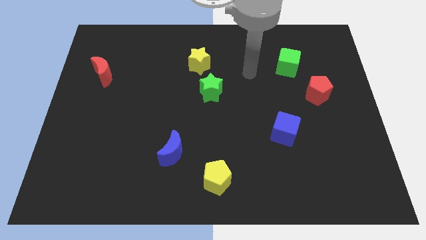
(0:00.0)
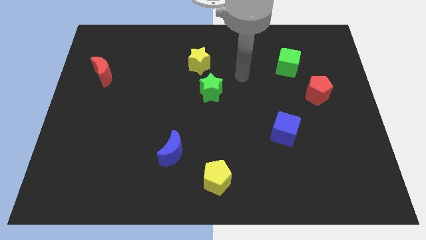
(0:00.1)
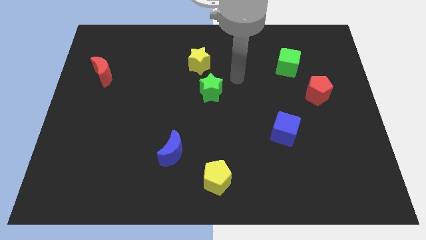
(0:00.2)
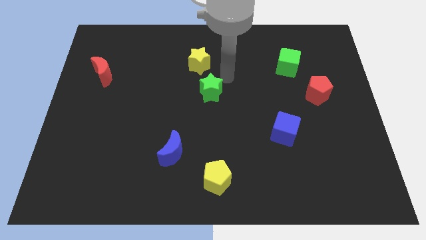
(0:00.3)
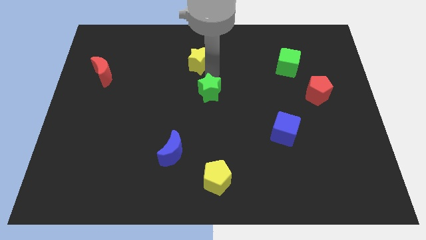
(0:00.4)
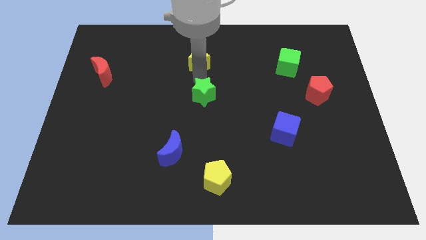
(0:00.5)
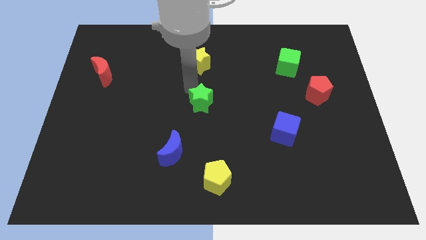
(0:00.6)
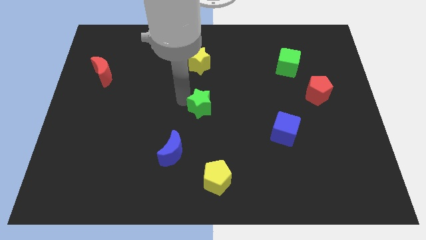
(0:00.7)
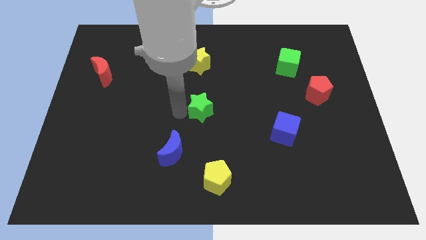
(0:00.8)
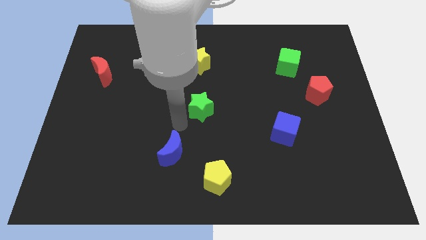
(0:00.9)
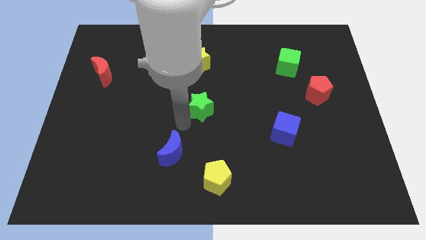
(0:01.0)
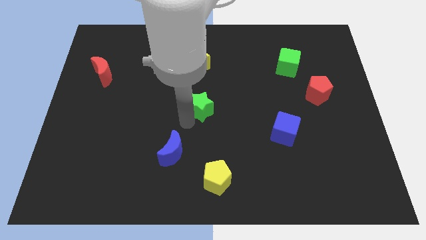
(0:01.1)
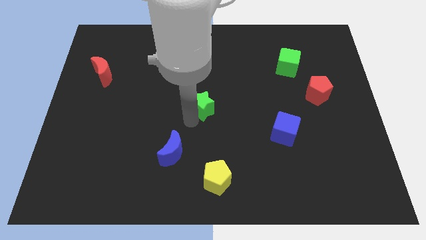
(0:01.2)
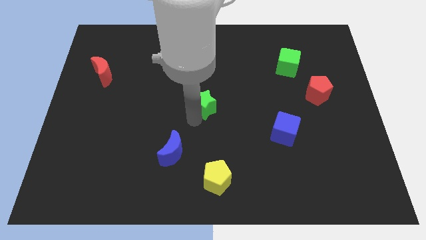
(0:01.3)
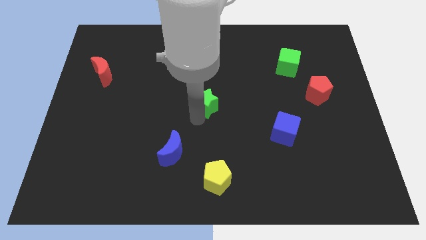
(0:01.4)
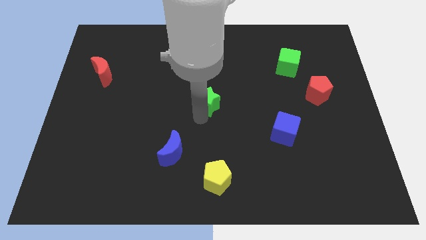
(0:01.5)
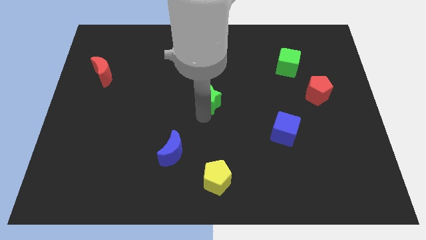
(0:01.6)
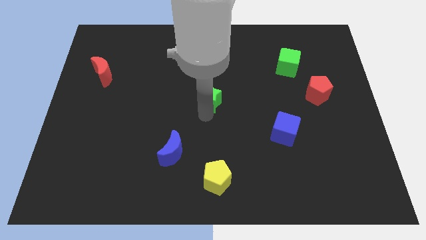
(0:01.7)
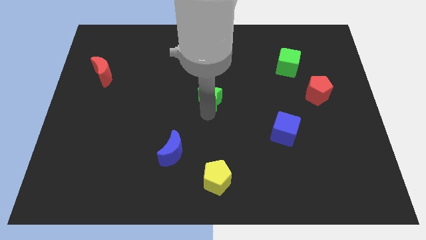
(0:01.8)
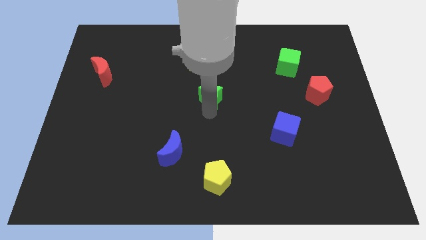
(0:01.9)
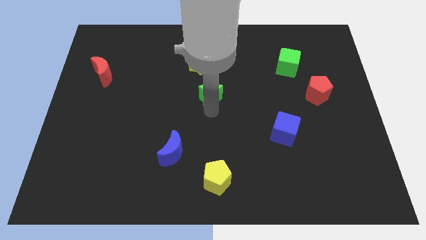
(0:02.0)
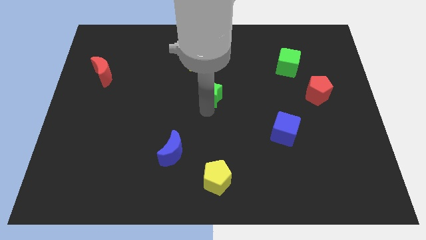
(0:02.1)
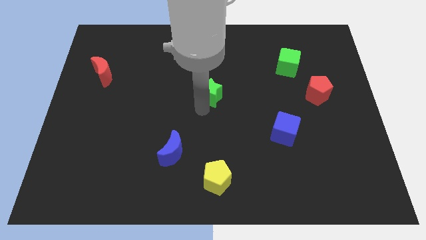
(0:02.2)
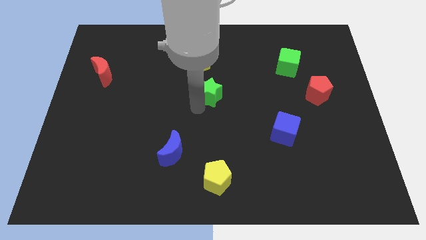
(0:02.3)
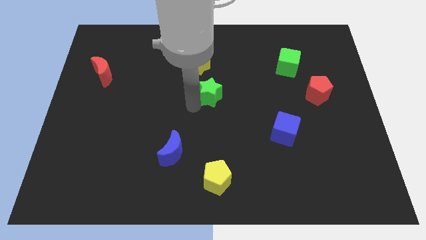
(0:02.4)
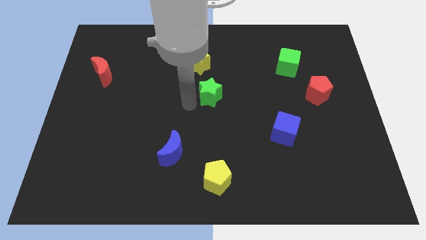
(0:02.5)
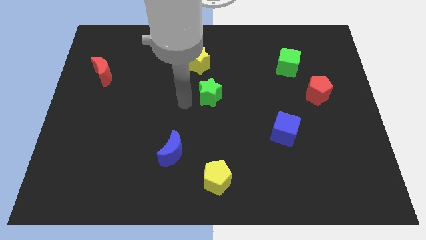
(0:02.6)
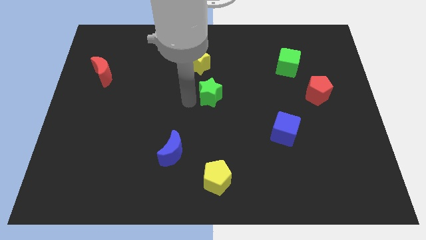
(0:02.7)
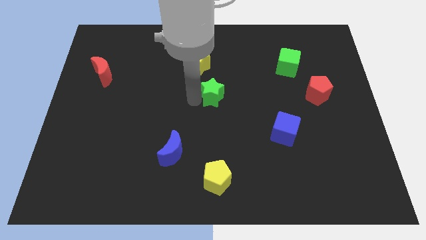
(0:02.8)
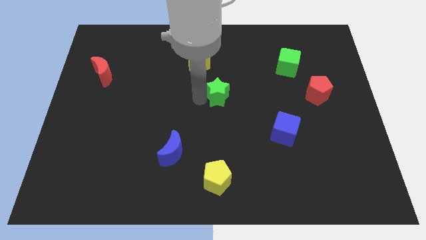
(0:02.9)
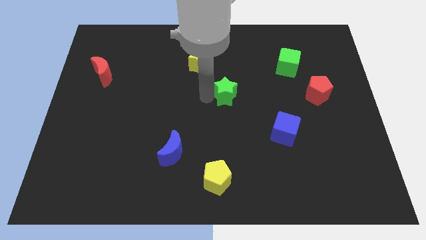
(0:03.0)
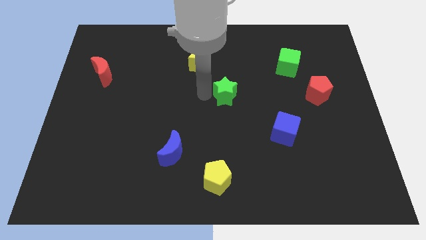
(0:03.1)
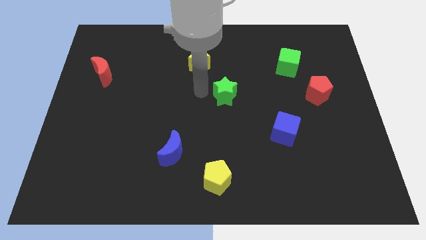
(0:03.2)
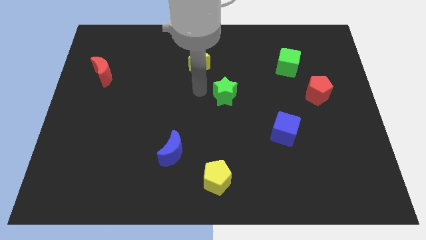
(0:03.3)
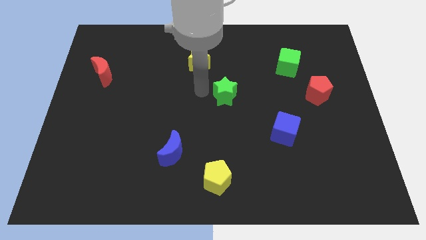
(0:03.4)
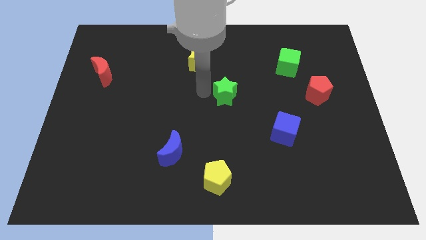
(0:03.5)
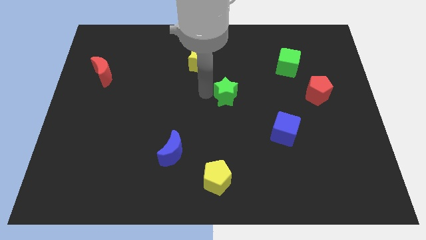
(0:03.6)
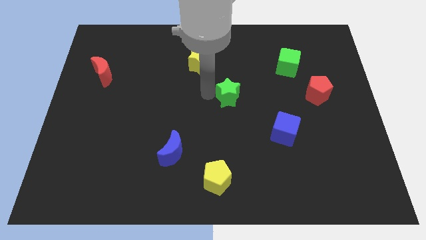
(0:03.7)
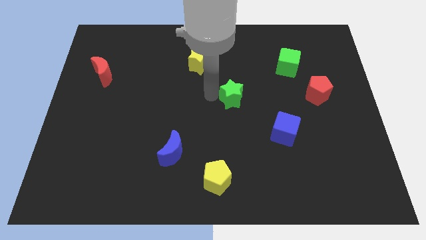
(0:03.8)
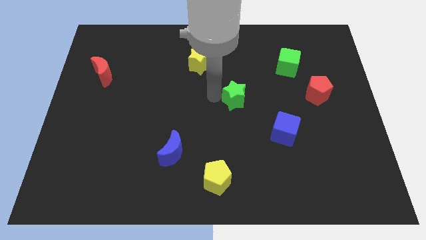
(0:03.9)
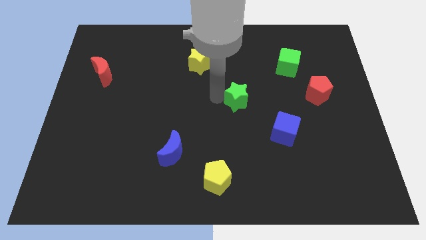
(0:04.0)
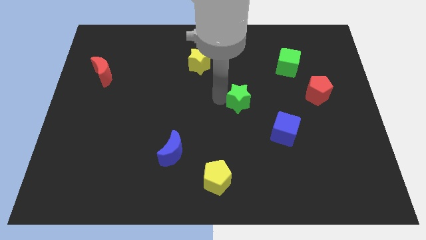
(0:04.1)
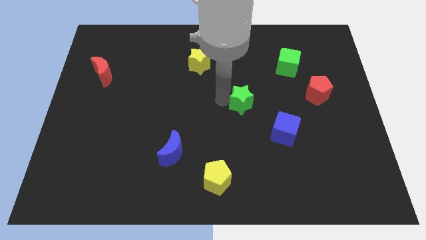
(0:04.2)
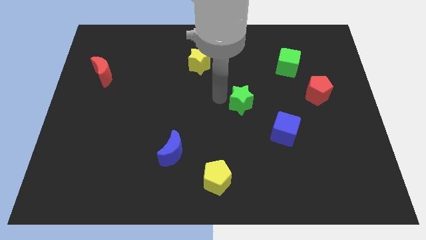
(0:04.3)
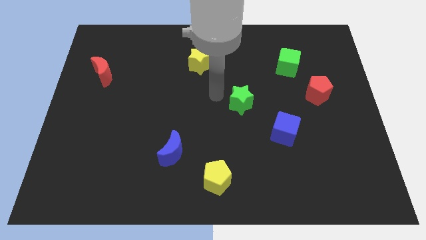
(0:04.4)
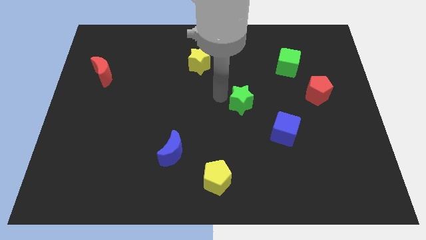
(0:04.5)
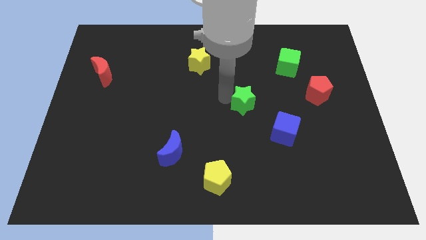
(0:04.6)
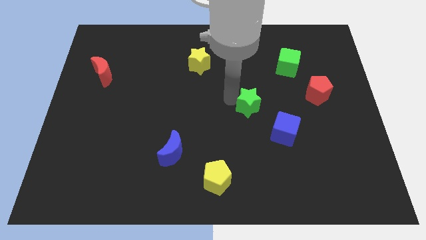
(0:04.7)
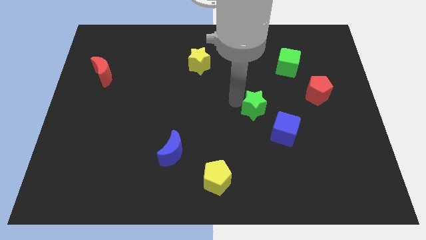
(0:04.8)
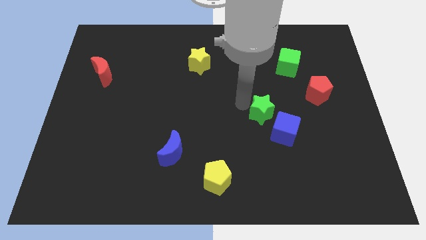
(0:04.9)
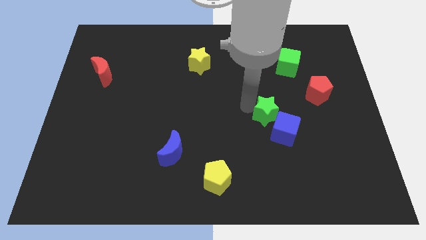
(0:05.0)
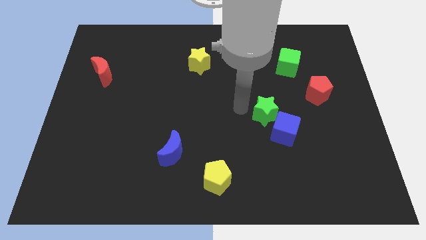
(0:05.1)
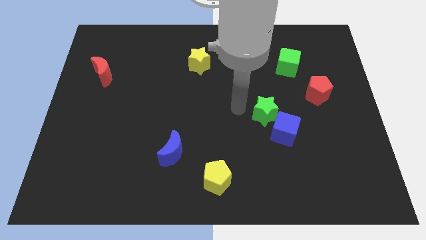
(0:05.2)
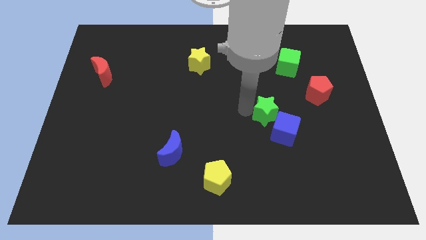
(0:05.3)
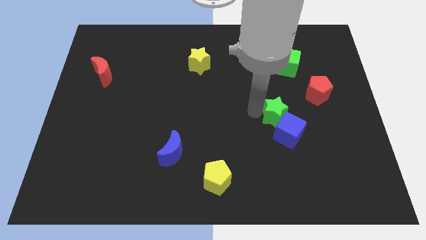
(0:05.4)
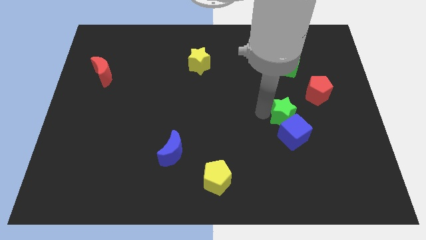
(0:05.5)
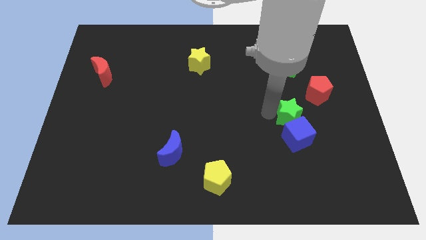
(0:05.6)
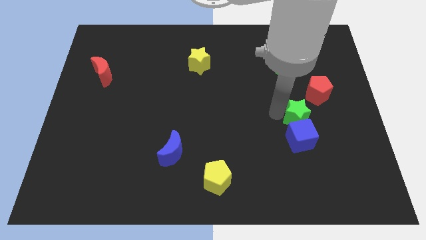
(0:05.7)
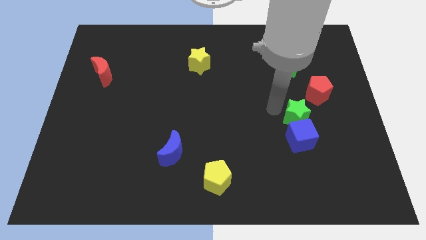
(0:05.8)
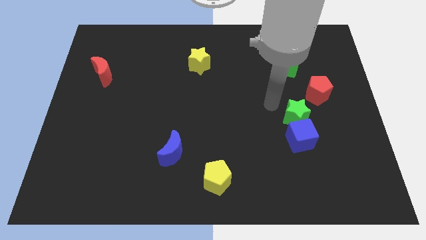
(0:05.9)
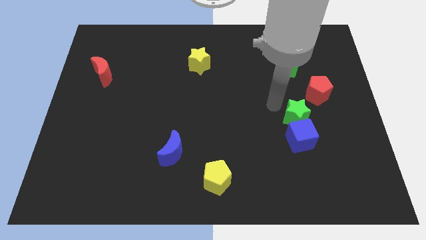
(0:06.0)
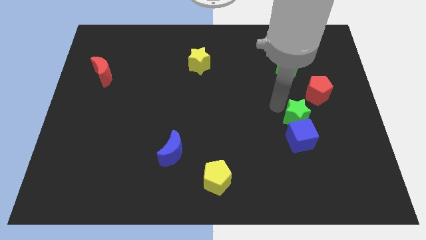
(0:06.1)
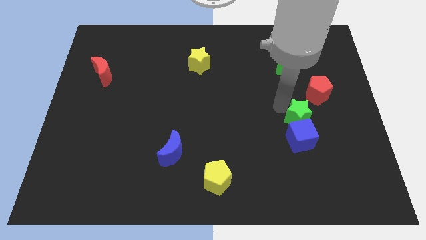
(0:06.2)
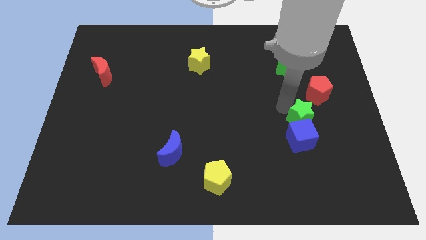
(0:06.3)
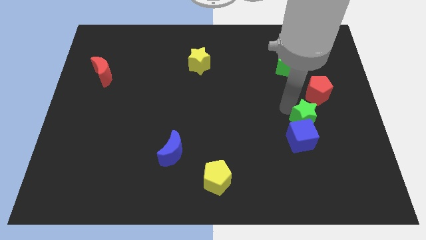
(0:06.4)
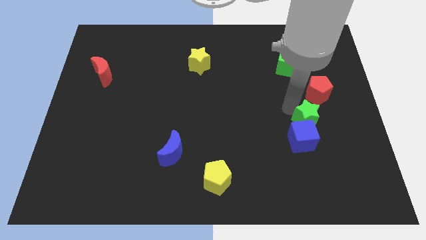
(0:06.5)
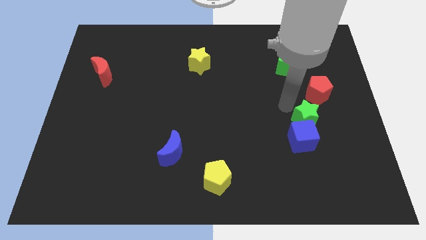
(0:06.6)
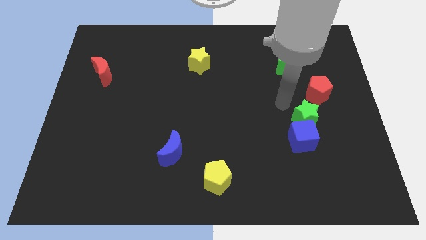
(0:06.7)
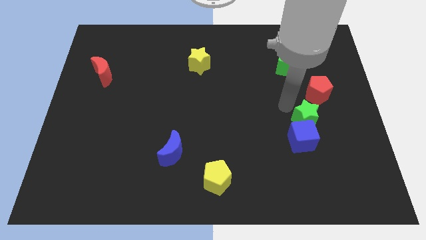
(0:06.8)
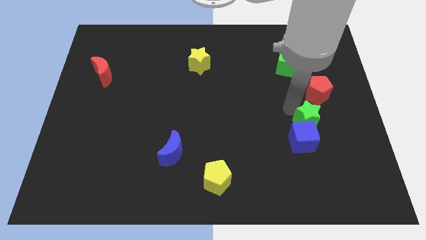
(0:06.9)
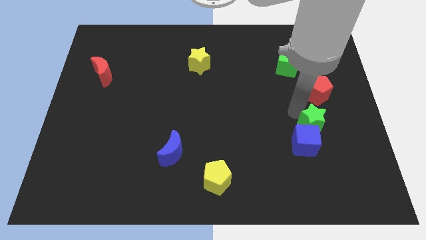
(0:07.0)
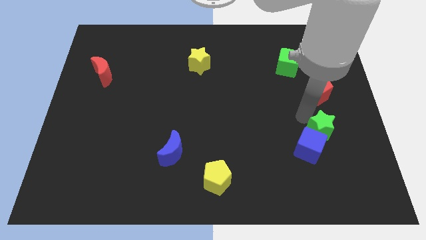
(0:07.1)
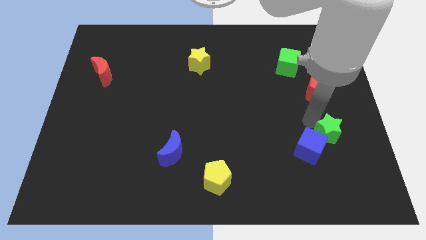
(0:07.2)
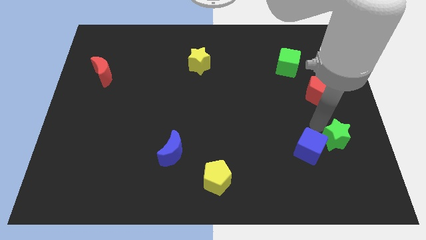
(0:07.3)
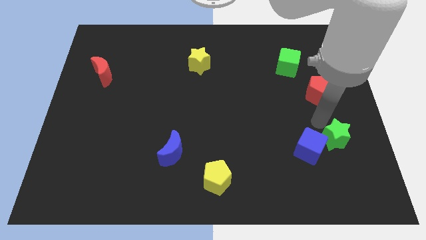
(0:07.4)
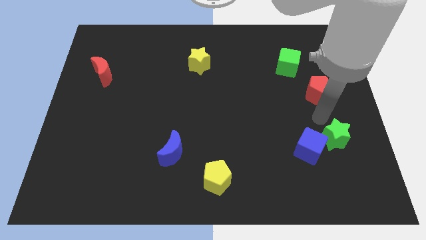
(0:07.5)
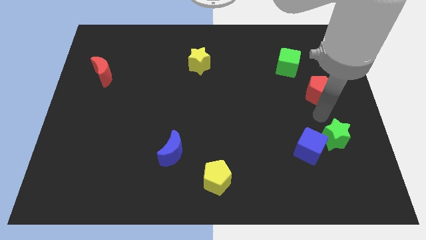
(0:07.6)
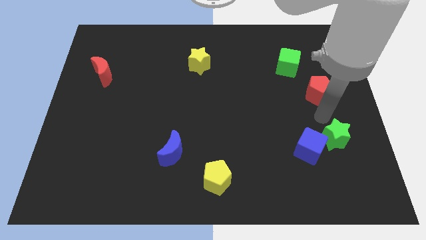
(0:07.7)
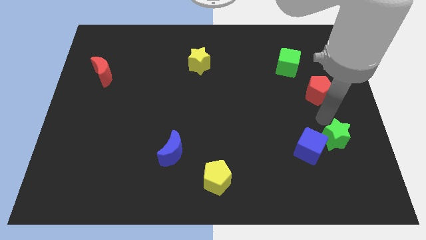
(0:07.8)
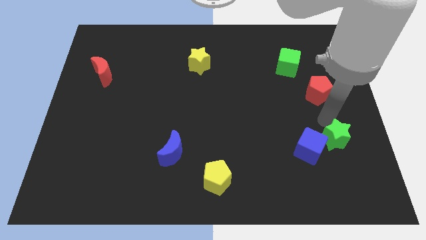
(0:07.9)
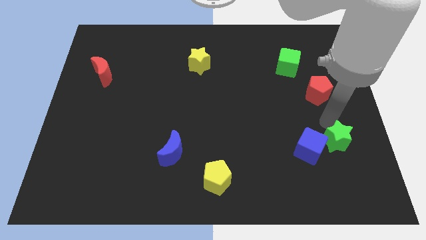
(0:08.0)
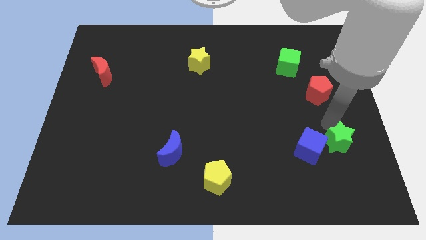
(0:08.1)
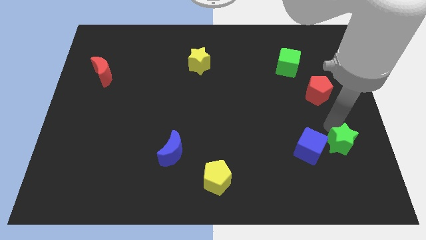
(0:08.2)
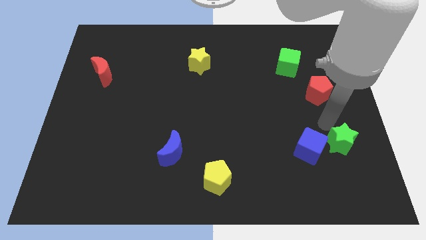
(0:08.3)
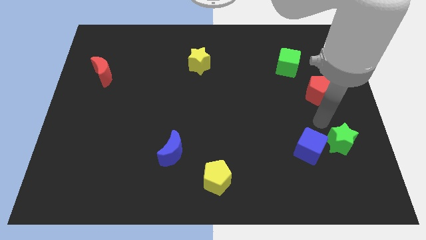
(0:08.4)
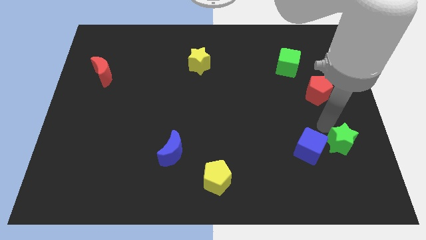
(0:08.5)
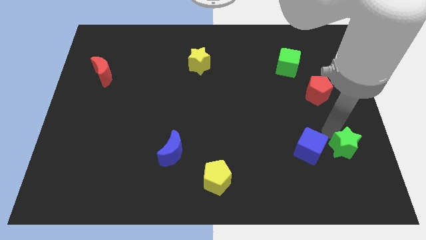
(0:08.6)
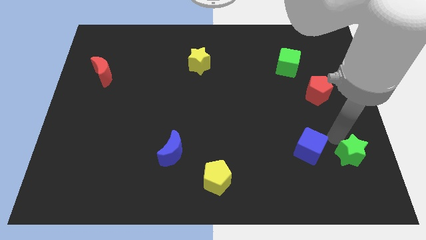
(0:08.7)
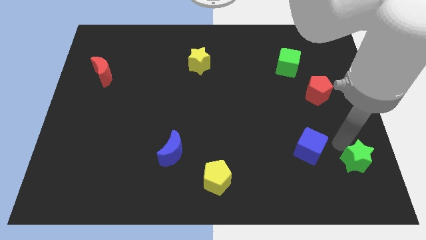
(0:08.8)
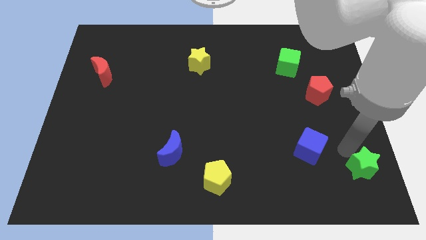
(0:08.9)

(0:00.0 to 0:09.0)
push the green star to the bottom right of the board
